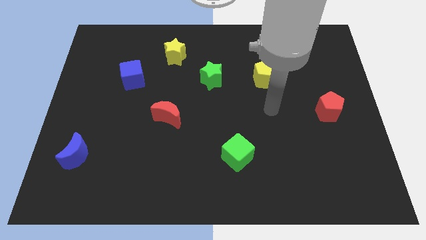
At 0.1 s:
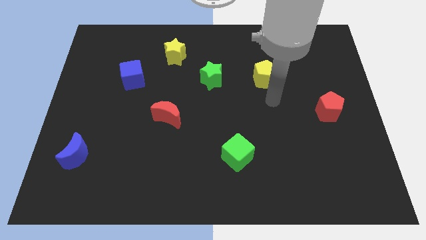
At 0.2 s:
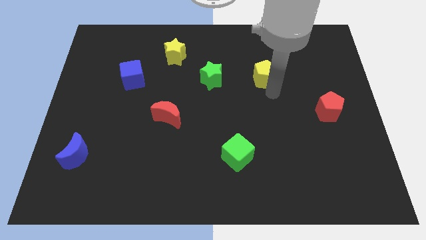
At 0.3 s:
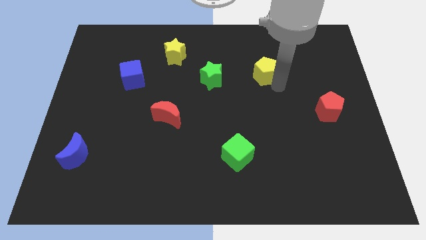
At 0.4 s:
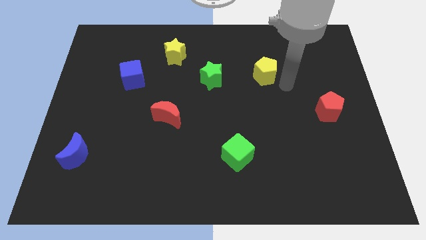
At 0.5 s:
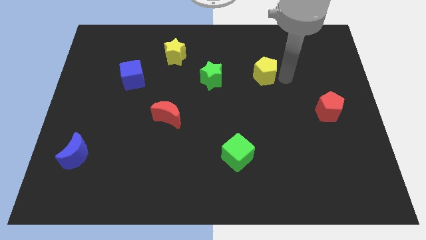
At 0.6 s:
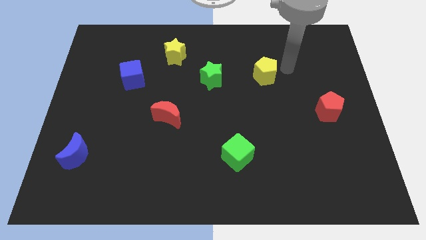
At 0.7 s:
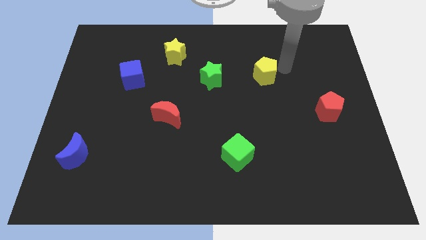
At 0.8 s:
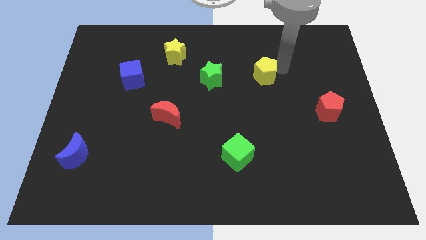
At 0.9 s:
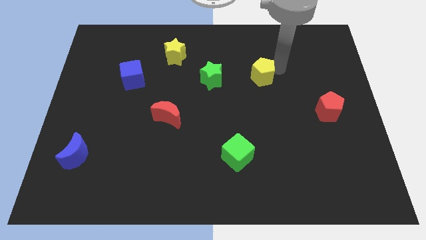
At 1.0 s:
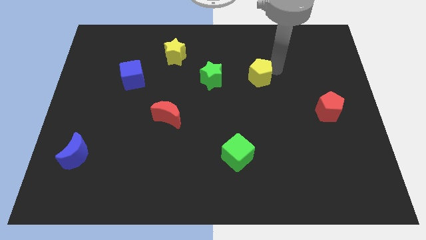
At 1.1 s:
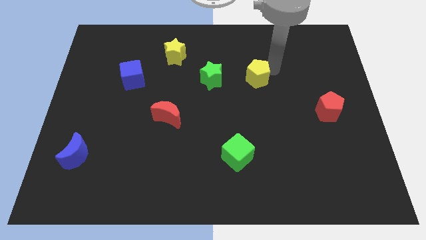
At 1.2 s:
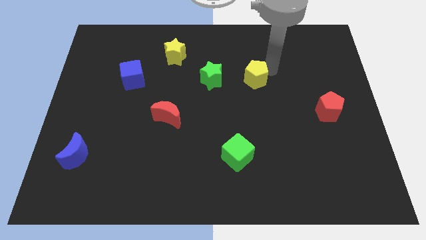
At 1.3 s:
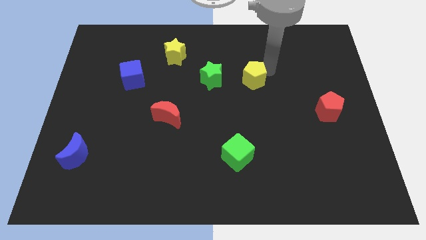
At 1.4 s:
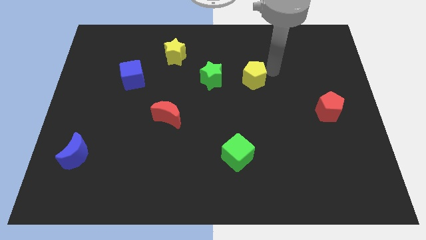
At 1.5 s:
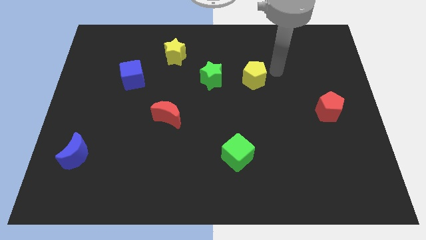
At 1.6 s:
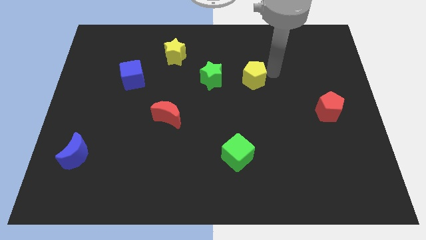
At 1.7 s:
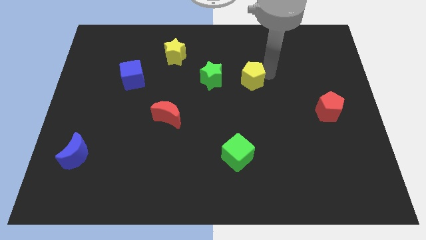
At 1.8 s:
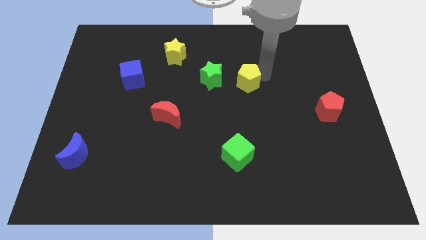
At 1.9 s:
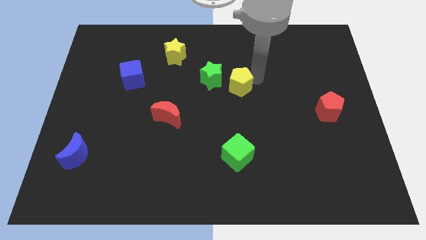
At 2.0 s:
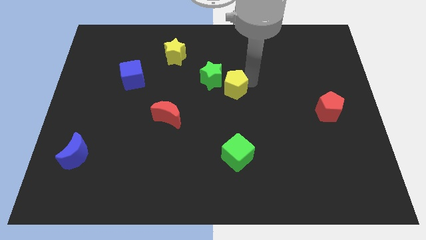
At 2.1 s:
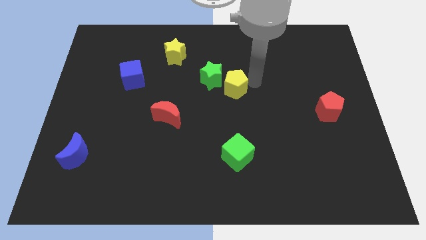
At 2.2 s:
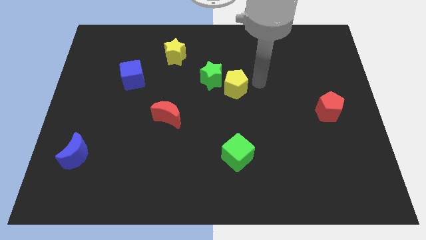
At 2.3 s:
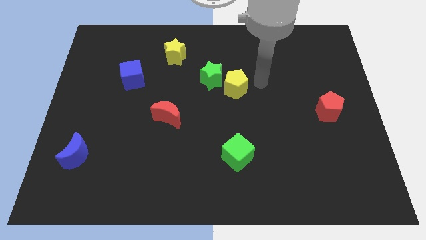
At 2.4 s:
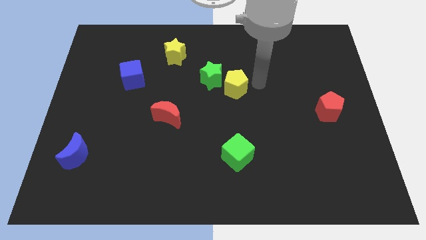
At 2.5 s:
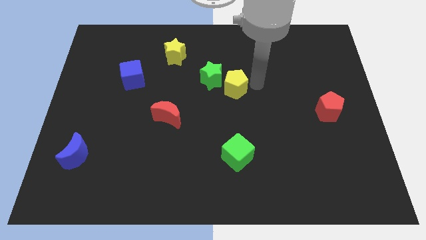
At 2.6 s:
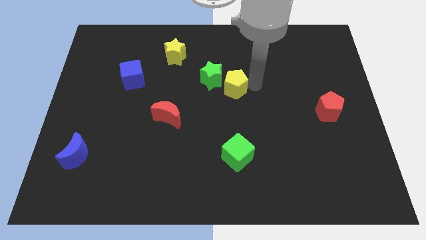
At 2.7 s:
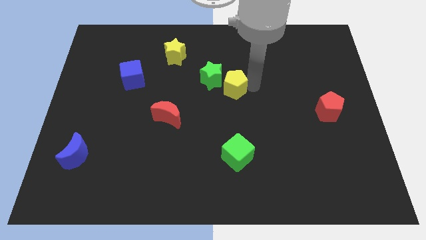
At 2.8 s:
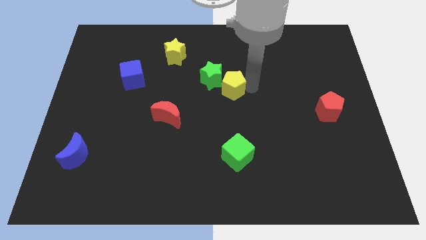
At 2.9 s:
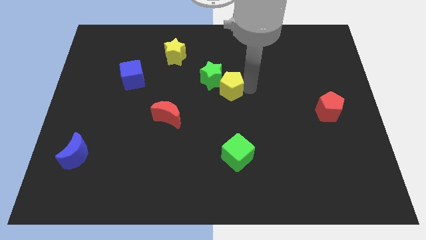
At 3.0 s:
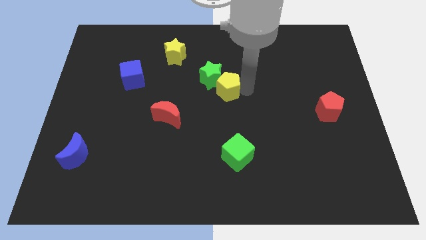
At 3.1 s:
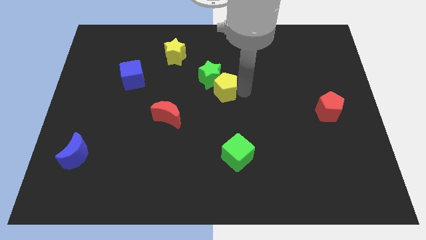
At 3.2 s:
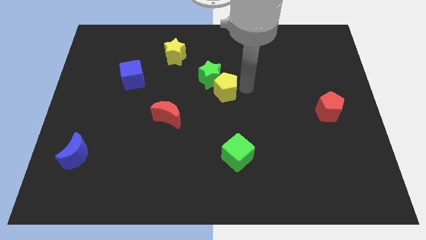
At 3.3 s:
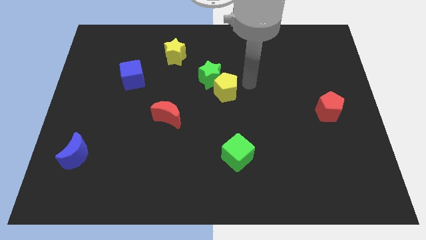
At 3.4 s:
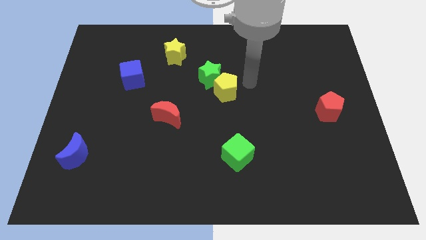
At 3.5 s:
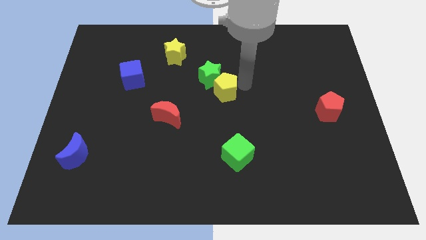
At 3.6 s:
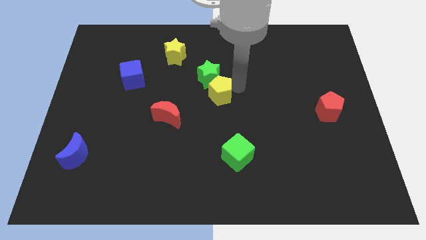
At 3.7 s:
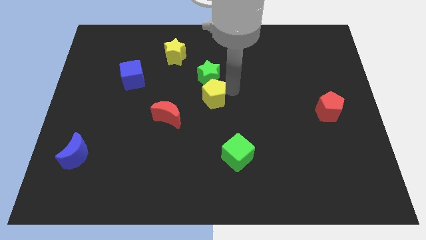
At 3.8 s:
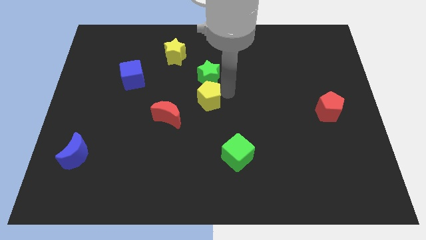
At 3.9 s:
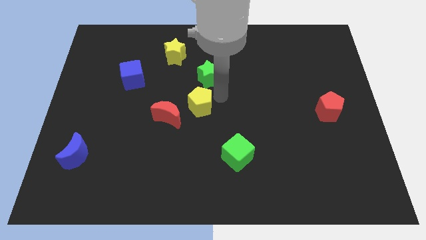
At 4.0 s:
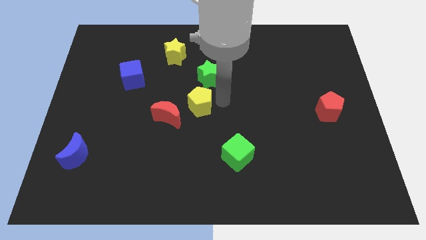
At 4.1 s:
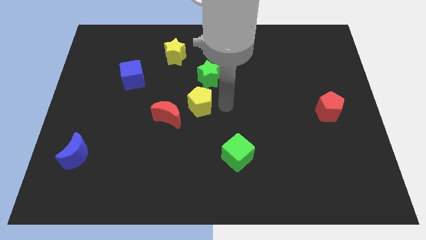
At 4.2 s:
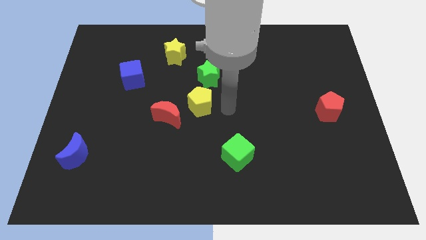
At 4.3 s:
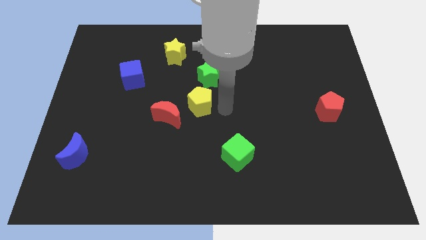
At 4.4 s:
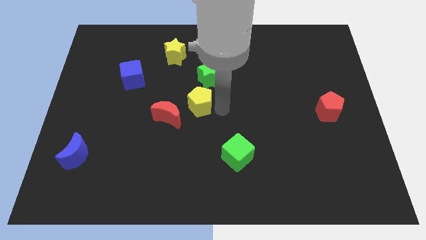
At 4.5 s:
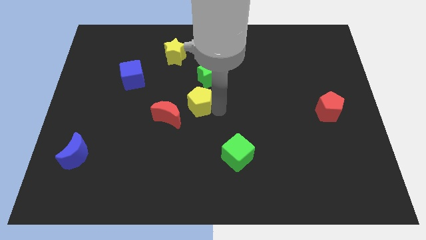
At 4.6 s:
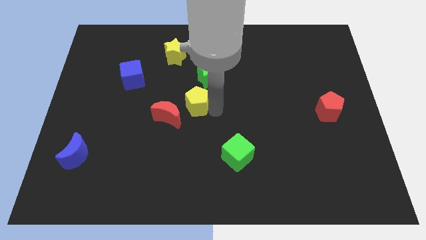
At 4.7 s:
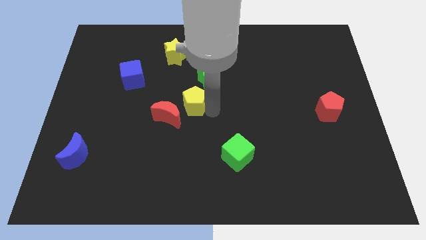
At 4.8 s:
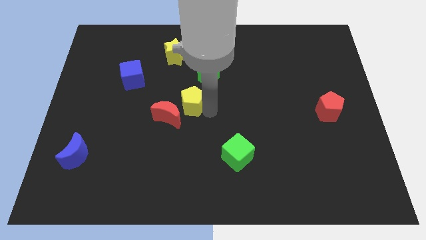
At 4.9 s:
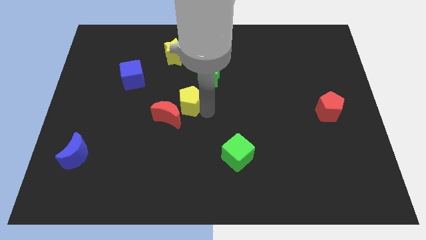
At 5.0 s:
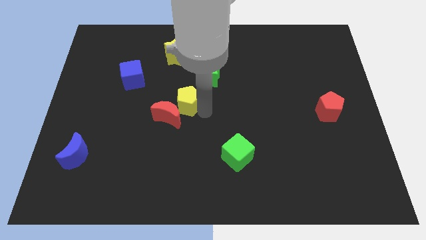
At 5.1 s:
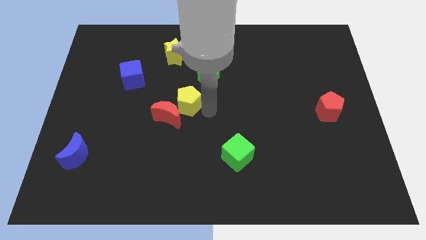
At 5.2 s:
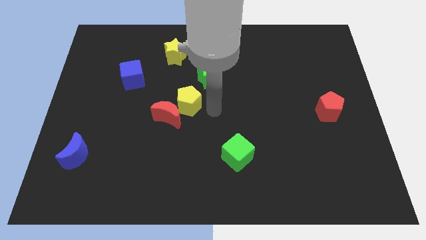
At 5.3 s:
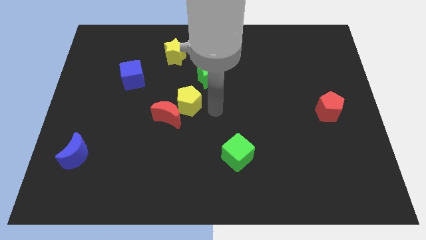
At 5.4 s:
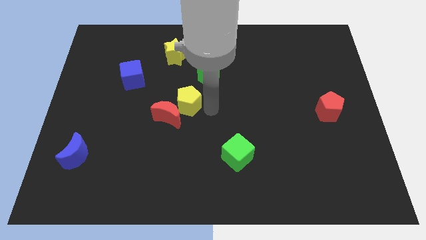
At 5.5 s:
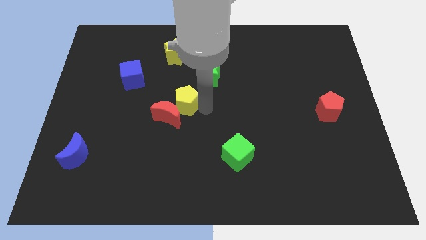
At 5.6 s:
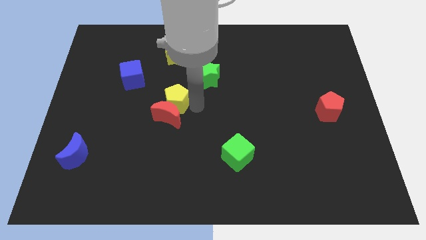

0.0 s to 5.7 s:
put the yellow pentagon to the top left of the red moon

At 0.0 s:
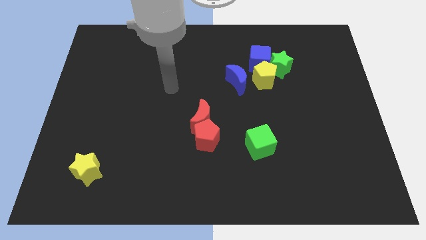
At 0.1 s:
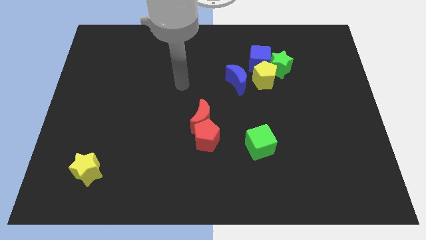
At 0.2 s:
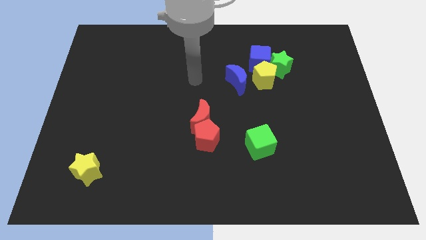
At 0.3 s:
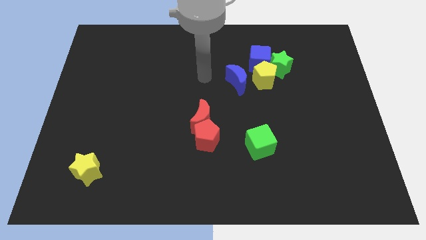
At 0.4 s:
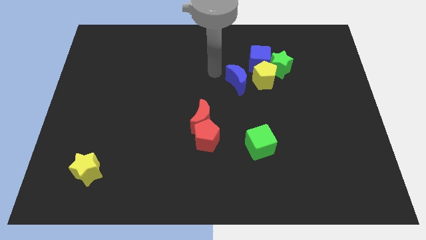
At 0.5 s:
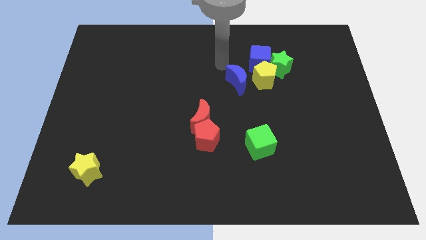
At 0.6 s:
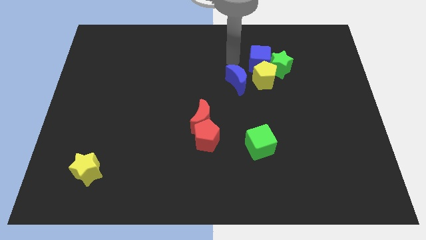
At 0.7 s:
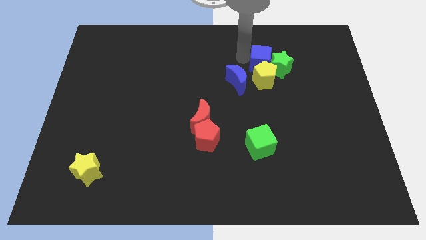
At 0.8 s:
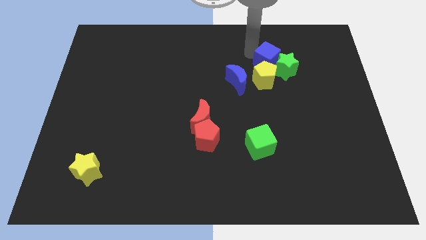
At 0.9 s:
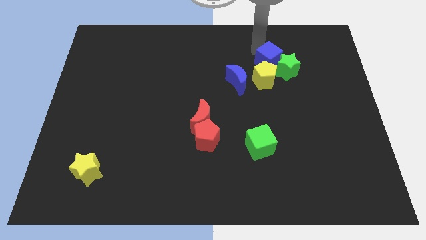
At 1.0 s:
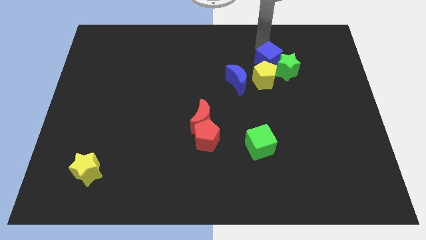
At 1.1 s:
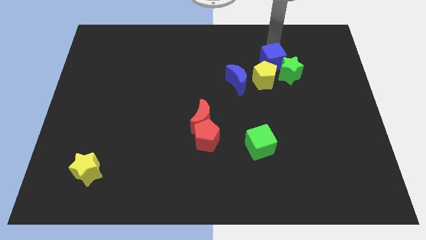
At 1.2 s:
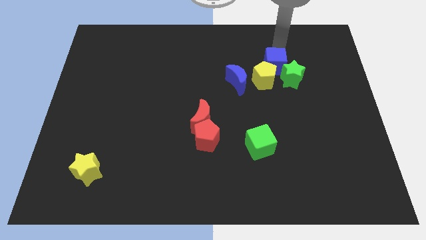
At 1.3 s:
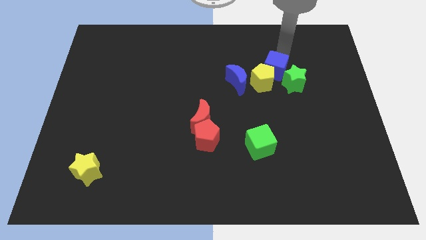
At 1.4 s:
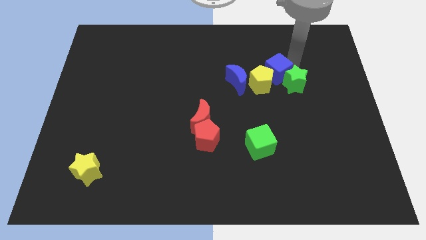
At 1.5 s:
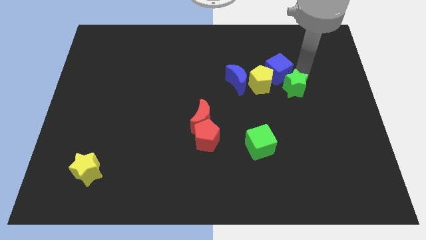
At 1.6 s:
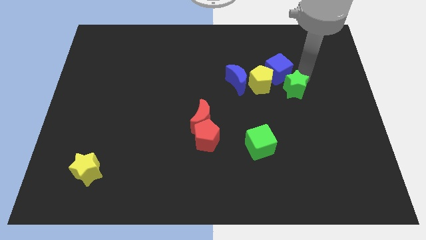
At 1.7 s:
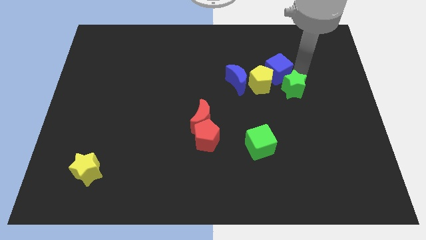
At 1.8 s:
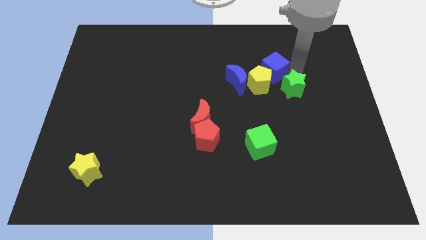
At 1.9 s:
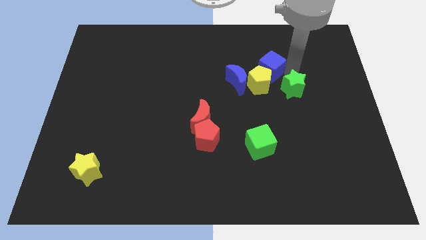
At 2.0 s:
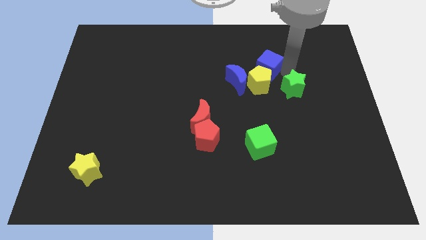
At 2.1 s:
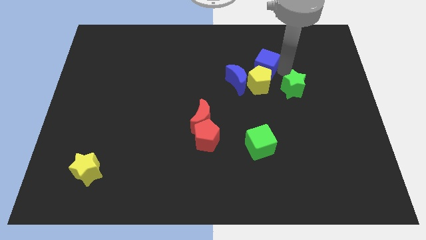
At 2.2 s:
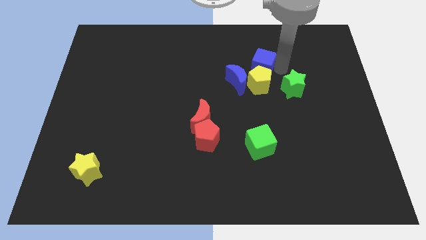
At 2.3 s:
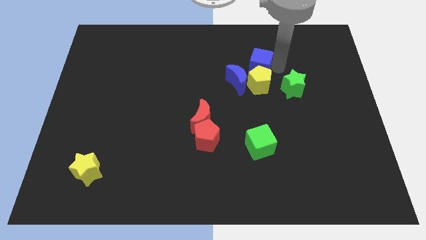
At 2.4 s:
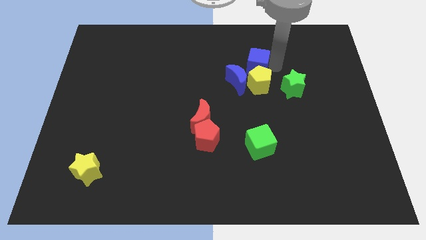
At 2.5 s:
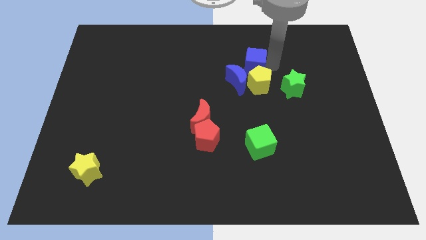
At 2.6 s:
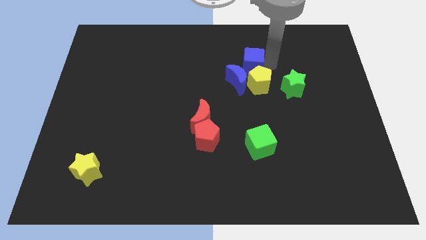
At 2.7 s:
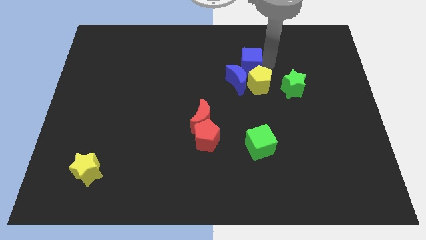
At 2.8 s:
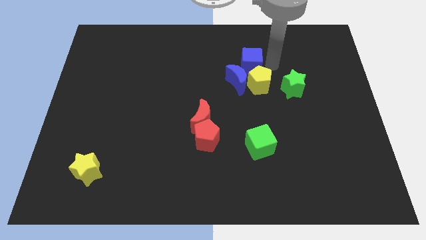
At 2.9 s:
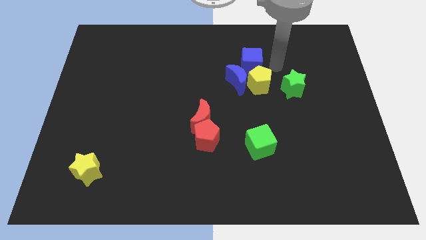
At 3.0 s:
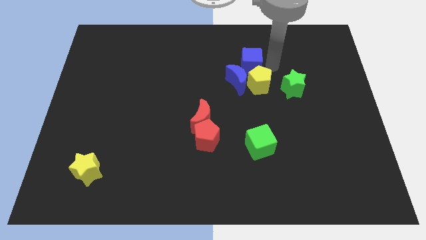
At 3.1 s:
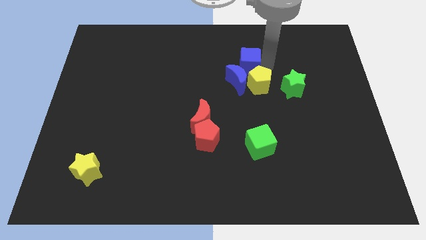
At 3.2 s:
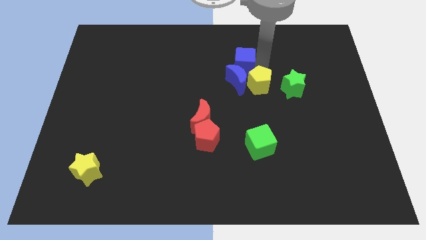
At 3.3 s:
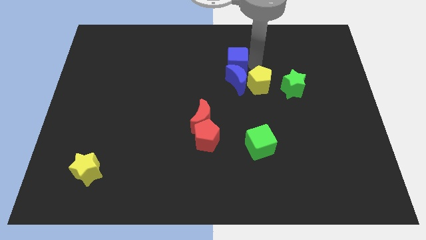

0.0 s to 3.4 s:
slide the blue cube to the top left of the blue moon
